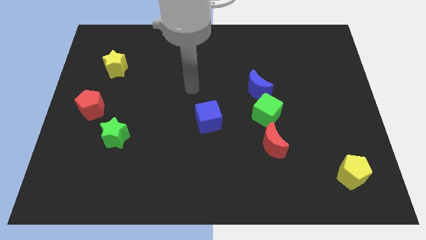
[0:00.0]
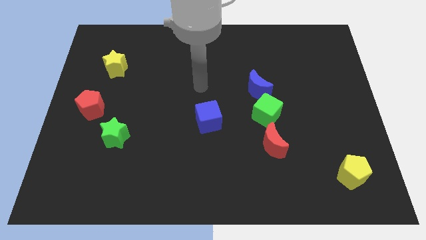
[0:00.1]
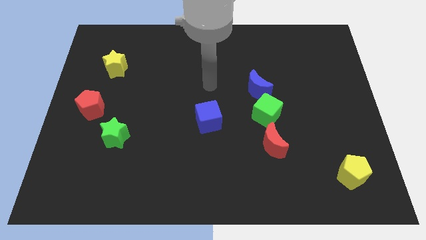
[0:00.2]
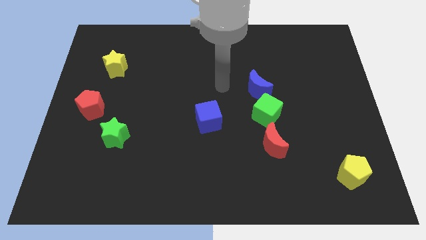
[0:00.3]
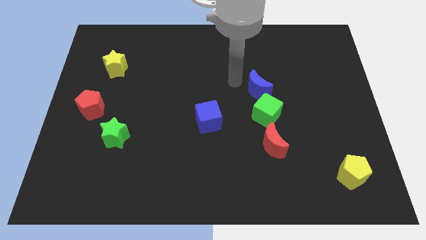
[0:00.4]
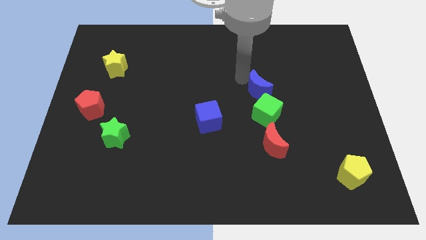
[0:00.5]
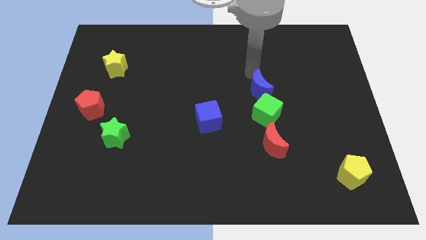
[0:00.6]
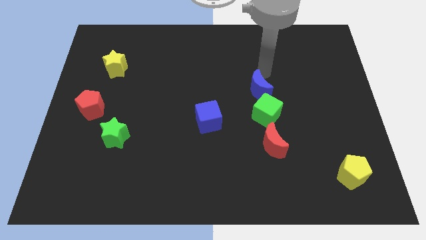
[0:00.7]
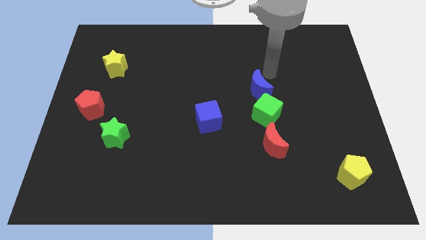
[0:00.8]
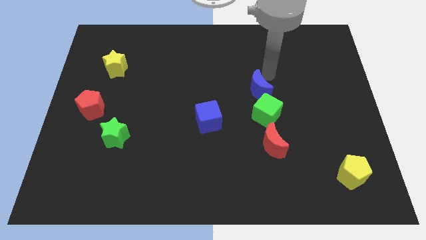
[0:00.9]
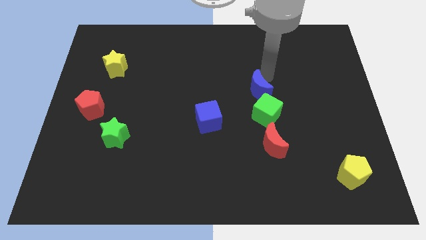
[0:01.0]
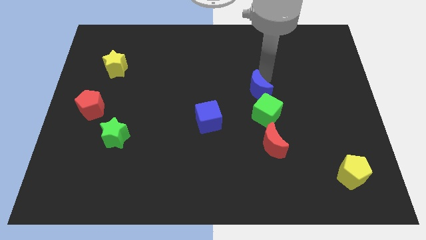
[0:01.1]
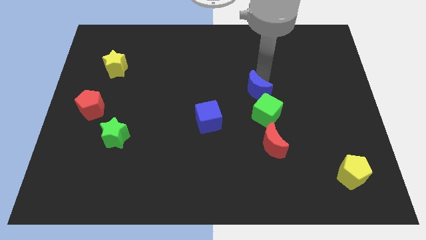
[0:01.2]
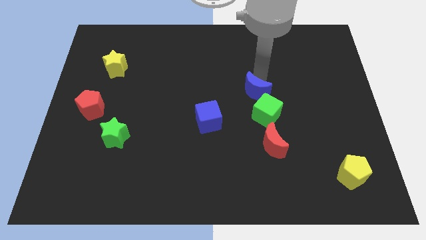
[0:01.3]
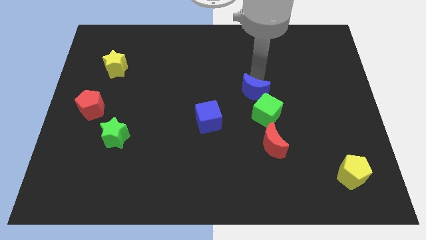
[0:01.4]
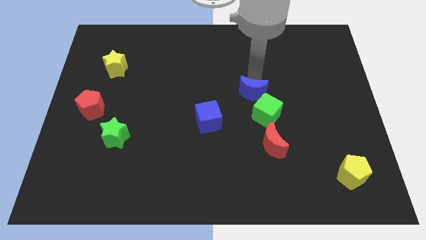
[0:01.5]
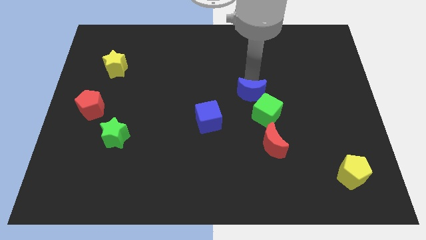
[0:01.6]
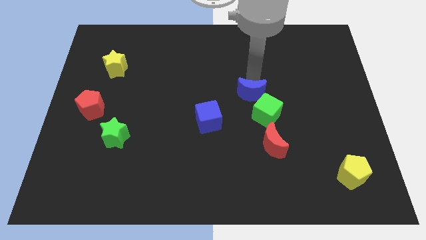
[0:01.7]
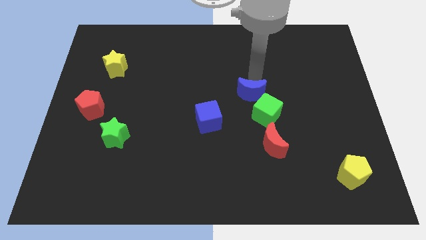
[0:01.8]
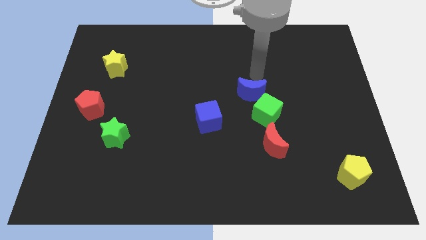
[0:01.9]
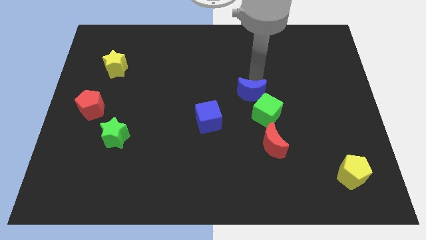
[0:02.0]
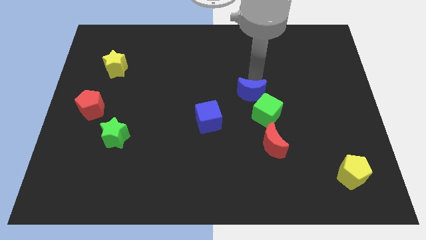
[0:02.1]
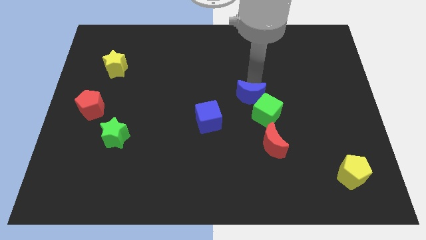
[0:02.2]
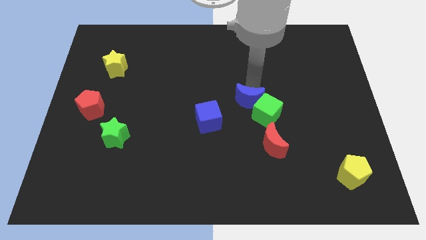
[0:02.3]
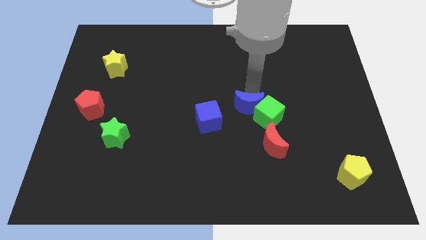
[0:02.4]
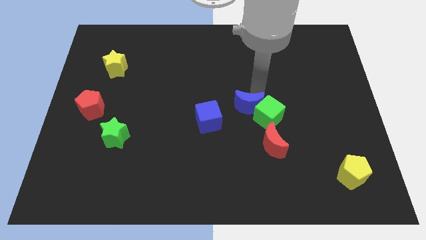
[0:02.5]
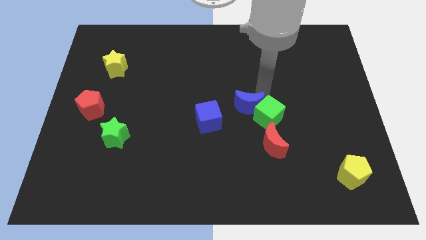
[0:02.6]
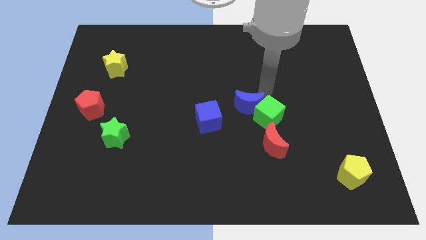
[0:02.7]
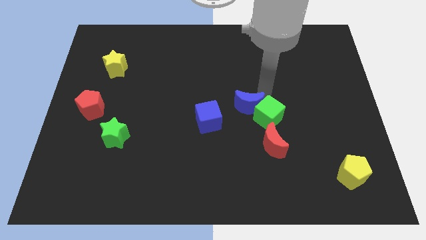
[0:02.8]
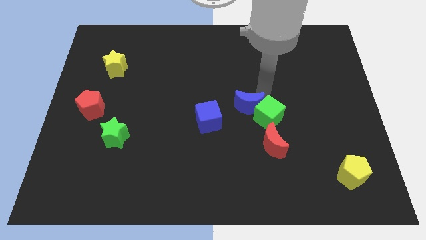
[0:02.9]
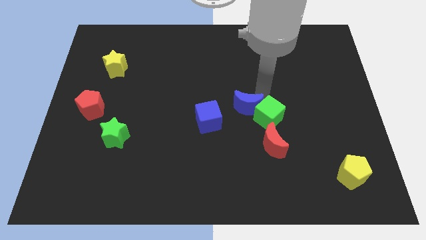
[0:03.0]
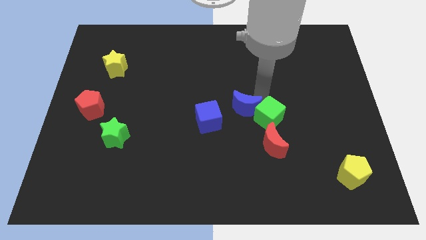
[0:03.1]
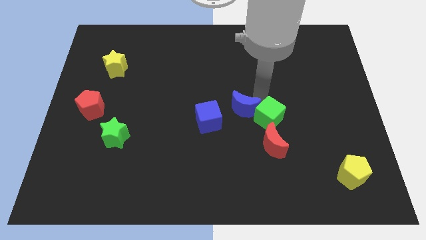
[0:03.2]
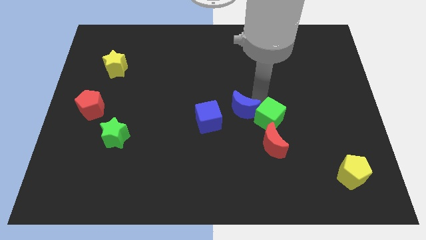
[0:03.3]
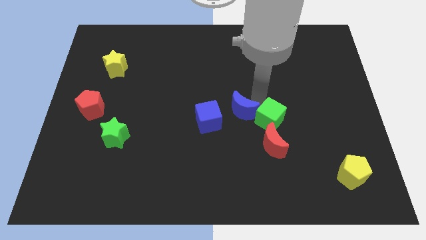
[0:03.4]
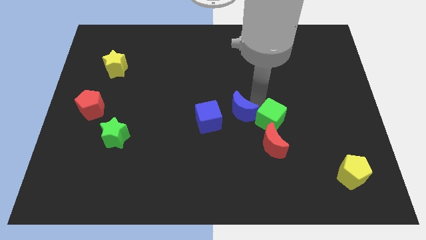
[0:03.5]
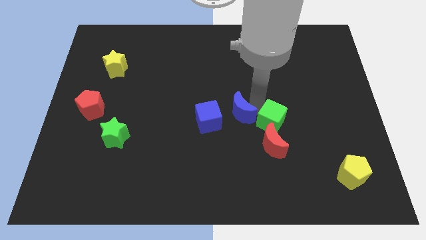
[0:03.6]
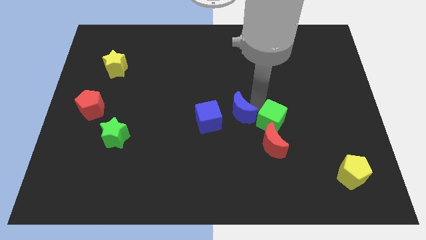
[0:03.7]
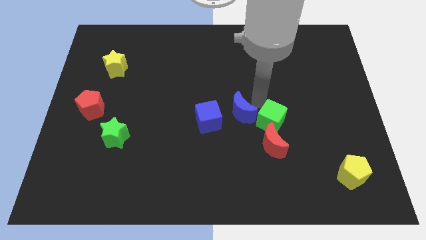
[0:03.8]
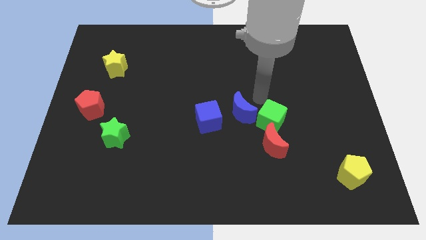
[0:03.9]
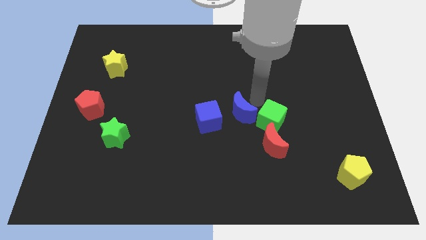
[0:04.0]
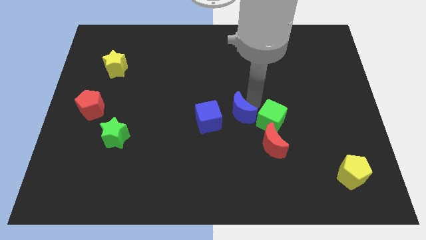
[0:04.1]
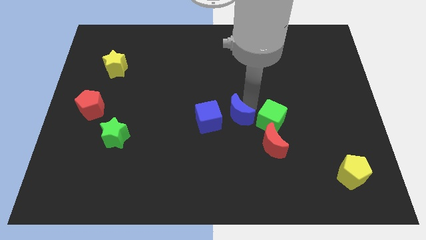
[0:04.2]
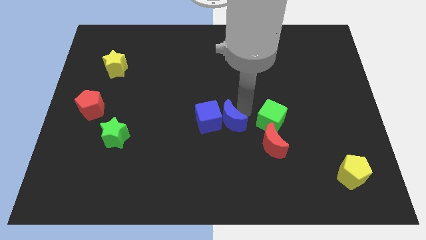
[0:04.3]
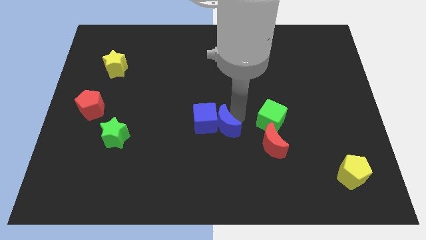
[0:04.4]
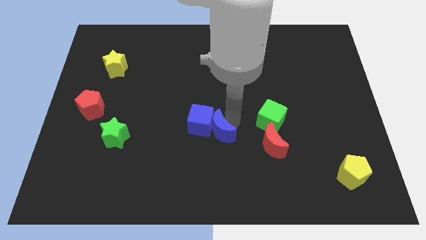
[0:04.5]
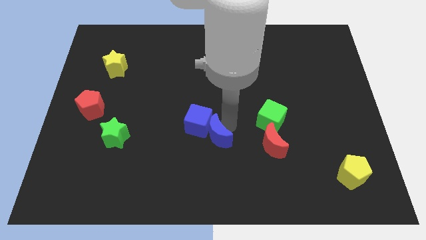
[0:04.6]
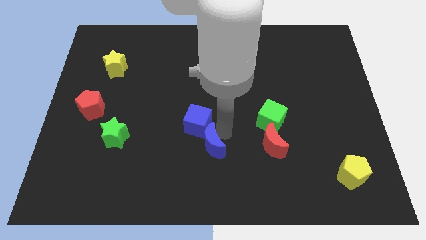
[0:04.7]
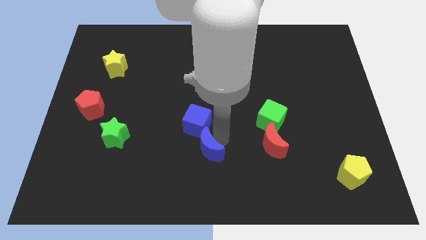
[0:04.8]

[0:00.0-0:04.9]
move the blue moon down and left

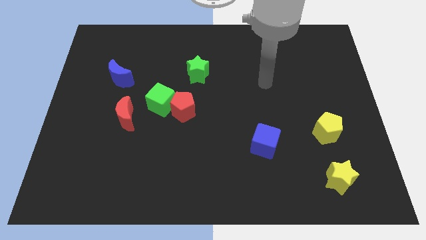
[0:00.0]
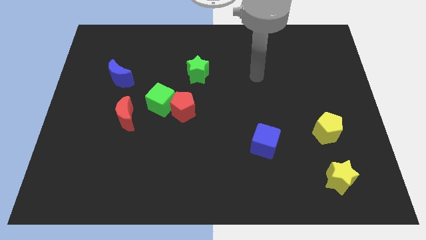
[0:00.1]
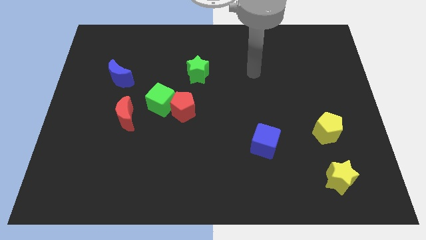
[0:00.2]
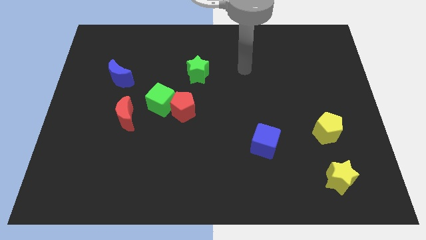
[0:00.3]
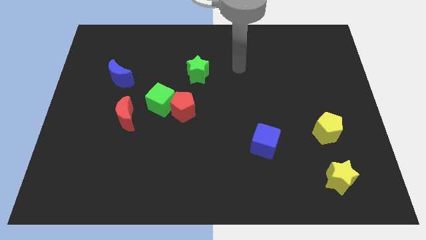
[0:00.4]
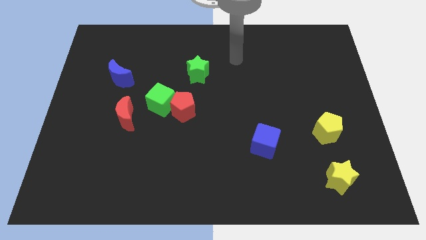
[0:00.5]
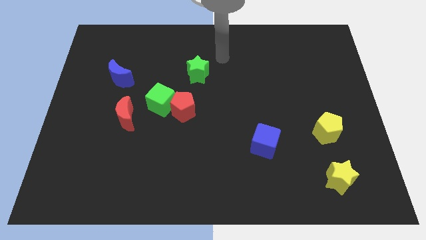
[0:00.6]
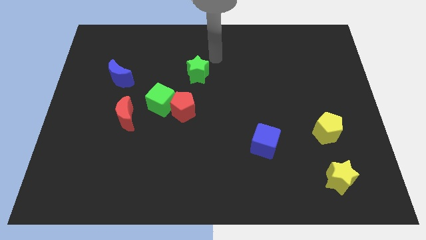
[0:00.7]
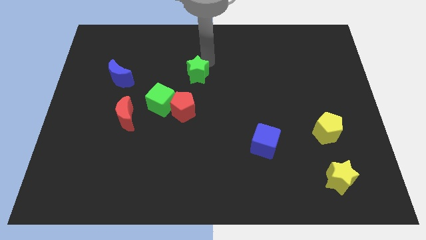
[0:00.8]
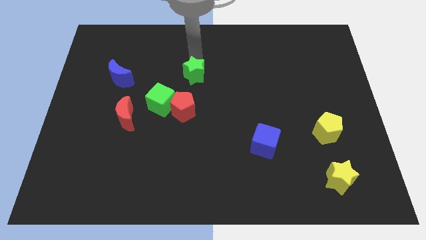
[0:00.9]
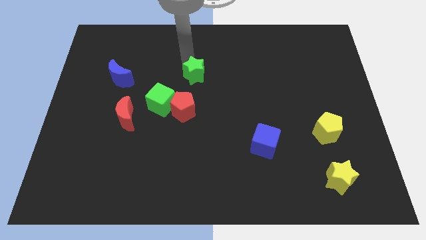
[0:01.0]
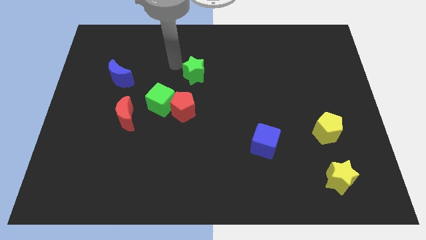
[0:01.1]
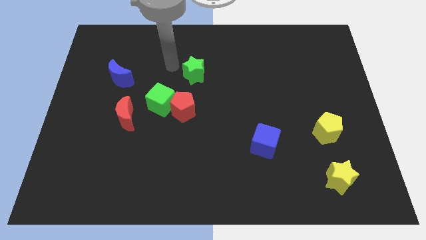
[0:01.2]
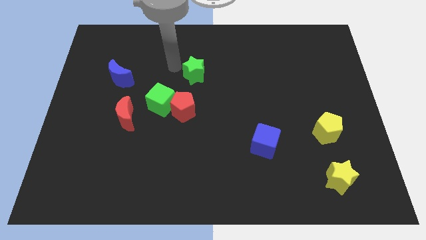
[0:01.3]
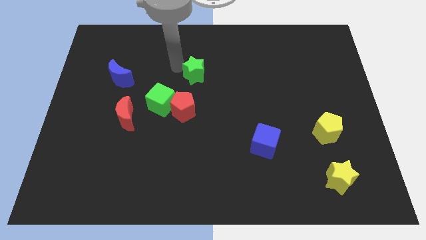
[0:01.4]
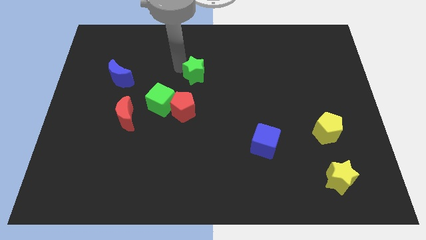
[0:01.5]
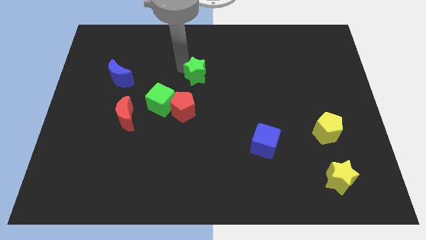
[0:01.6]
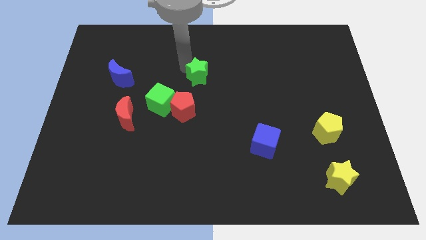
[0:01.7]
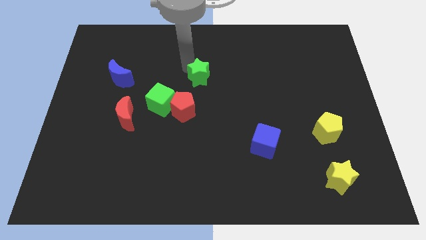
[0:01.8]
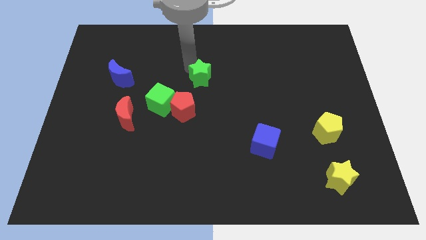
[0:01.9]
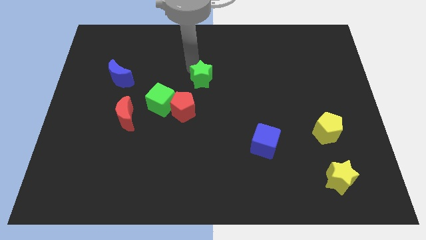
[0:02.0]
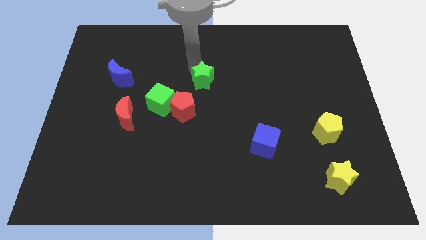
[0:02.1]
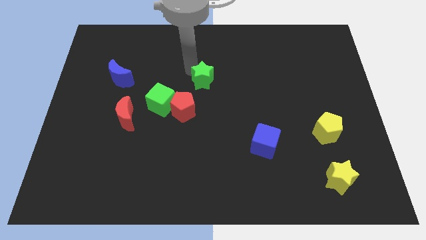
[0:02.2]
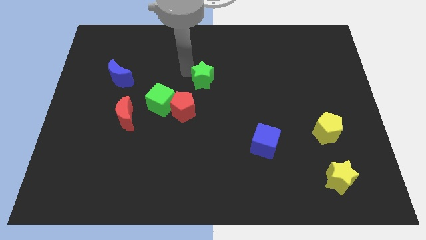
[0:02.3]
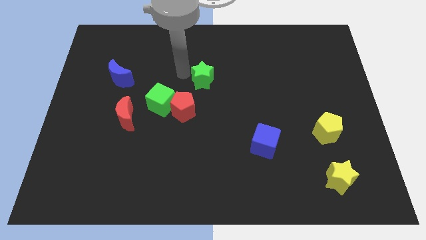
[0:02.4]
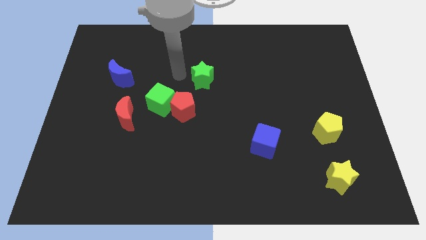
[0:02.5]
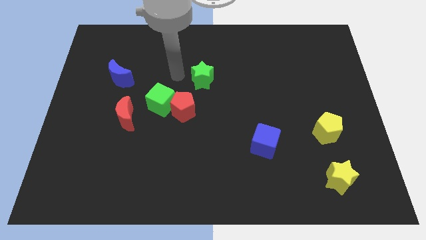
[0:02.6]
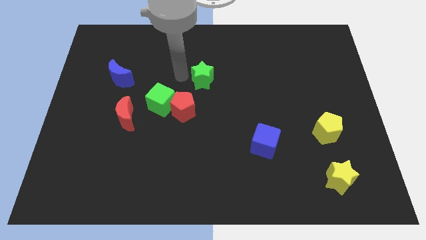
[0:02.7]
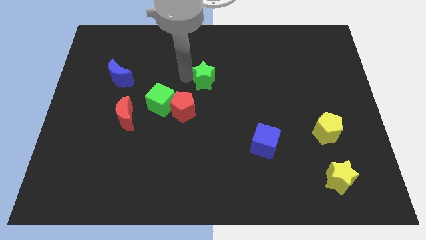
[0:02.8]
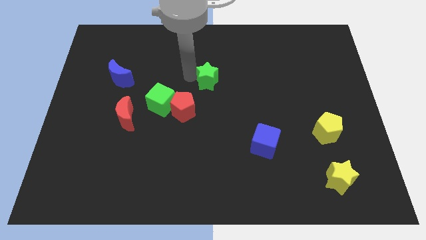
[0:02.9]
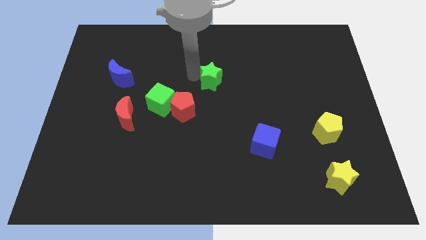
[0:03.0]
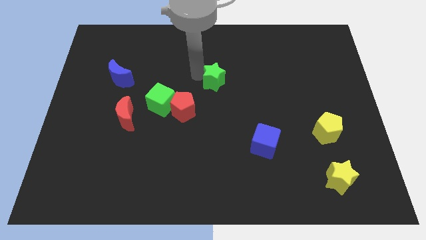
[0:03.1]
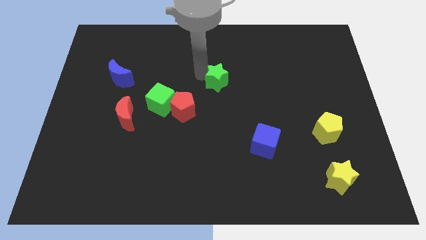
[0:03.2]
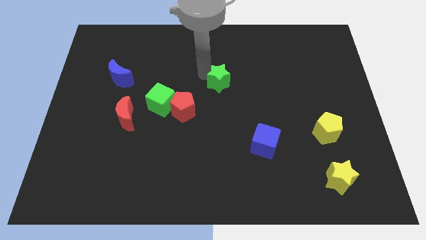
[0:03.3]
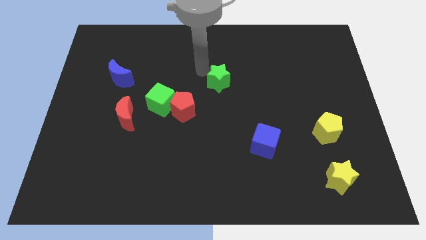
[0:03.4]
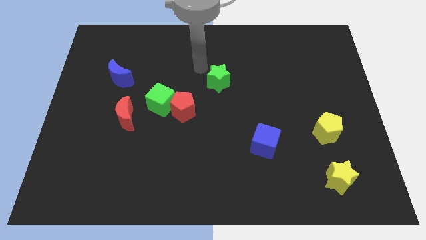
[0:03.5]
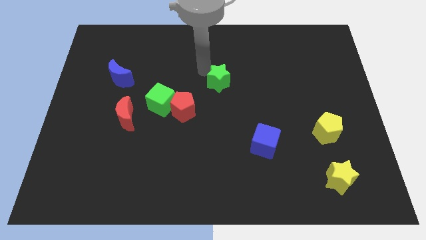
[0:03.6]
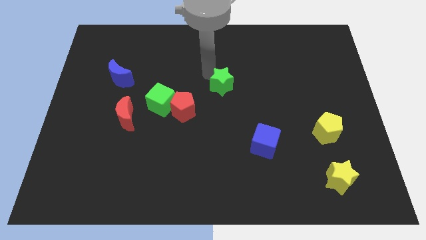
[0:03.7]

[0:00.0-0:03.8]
push the green star a bit diagonally down and to the right
